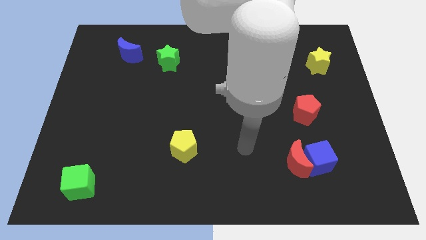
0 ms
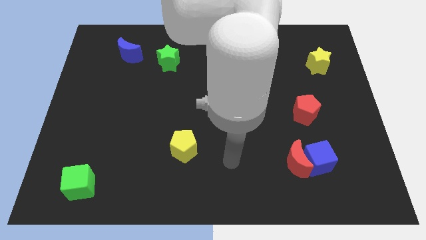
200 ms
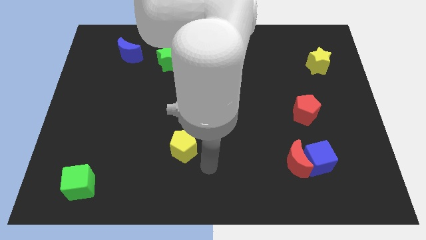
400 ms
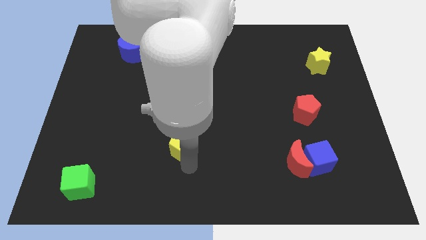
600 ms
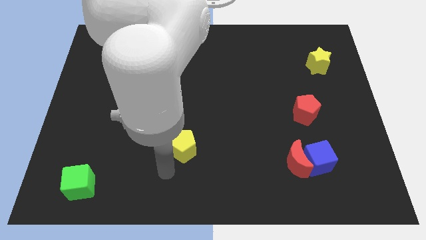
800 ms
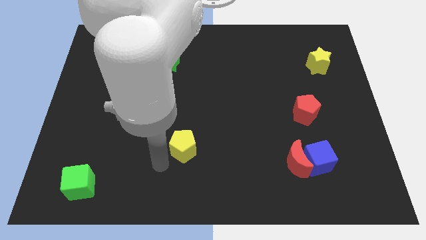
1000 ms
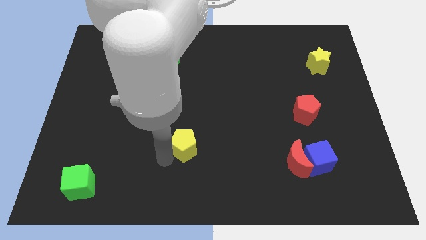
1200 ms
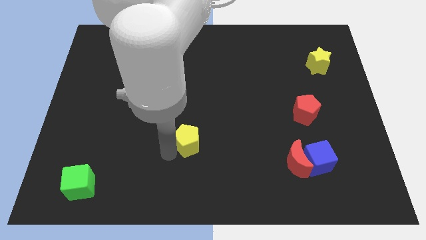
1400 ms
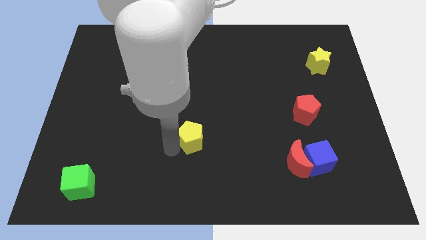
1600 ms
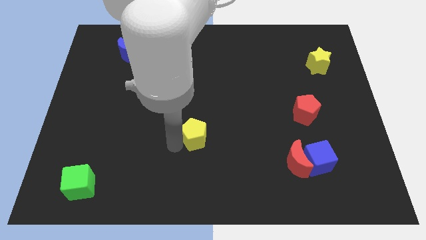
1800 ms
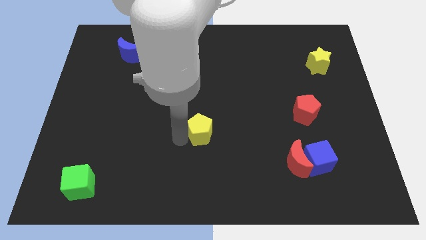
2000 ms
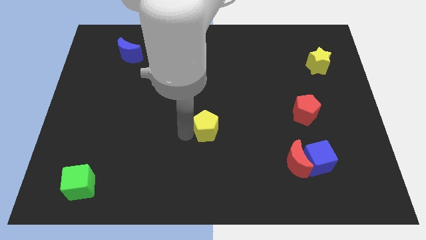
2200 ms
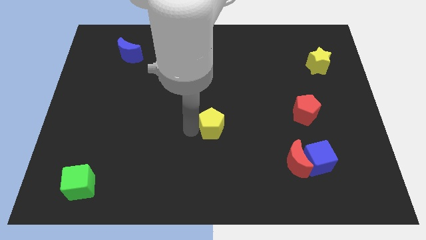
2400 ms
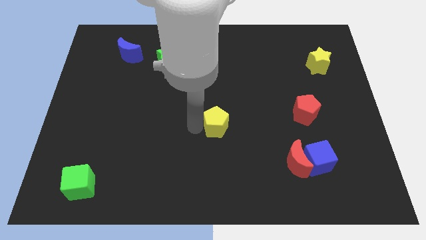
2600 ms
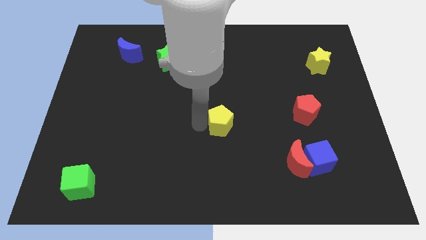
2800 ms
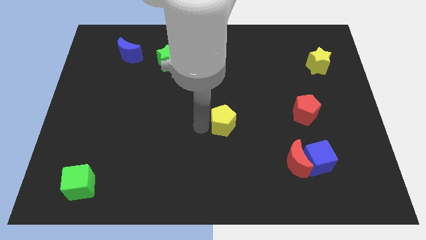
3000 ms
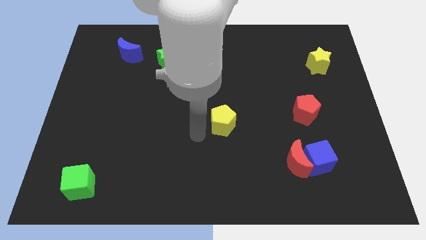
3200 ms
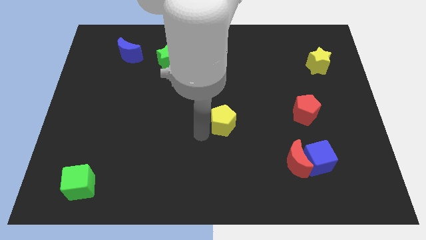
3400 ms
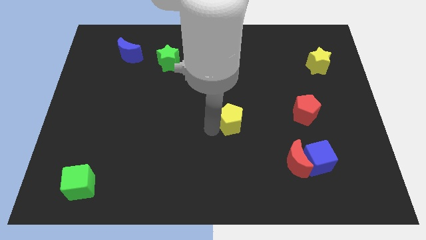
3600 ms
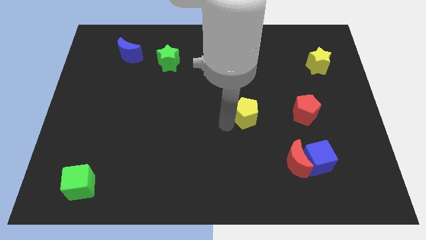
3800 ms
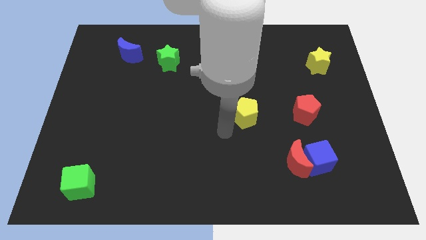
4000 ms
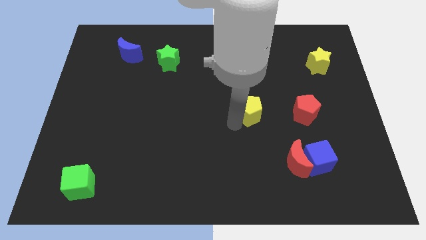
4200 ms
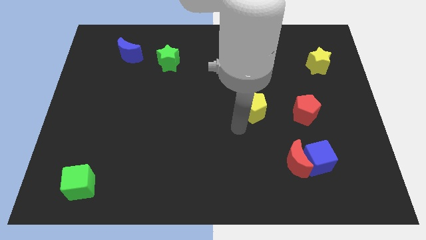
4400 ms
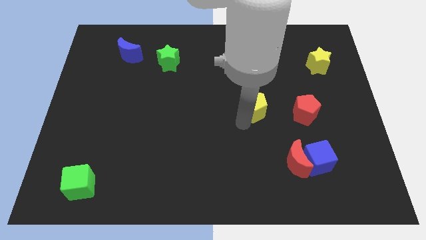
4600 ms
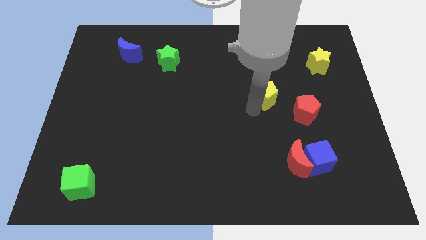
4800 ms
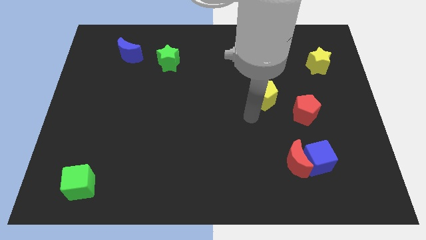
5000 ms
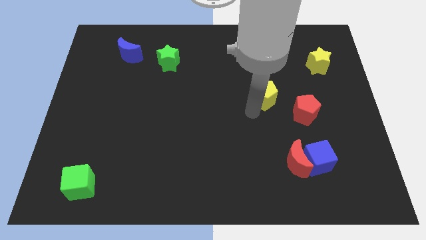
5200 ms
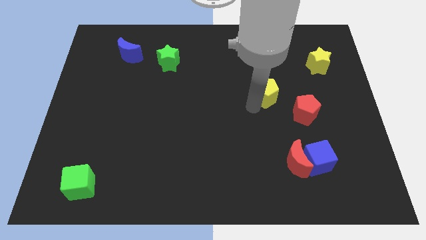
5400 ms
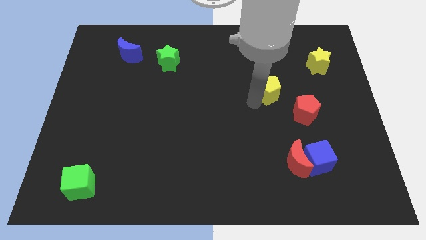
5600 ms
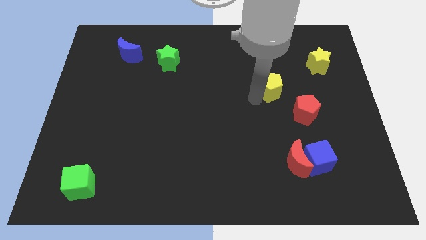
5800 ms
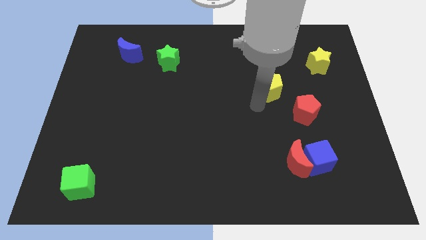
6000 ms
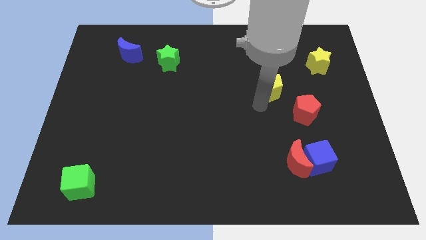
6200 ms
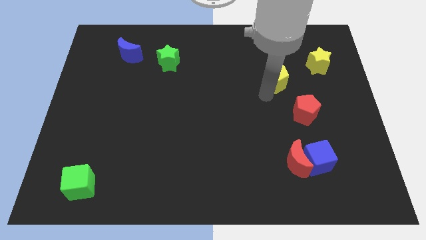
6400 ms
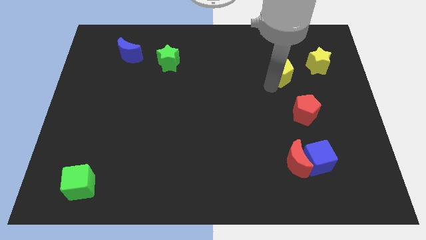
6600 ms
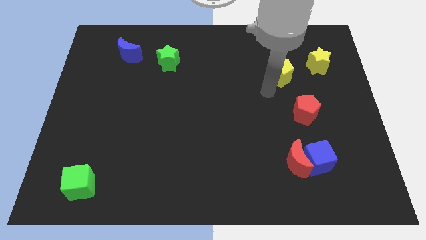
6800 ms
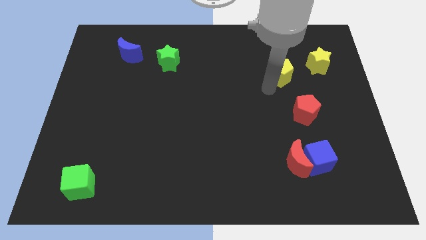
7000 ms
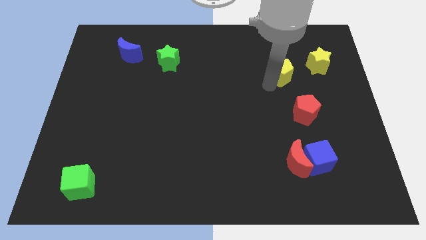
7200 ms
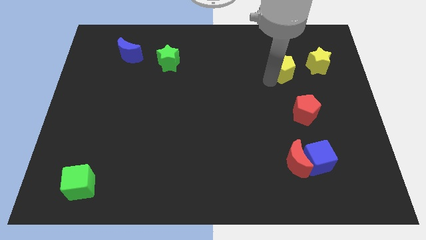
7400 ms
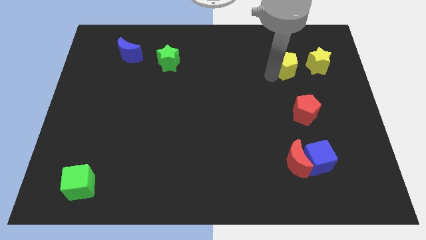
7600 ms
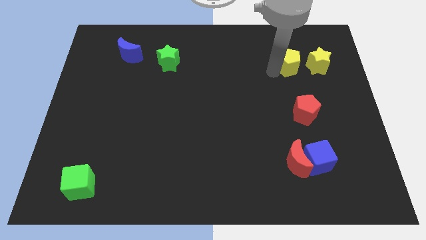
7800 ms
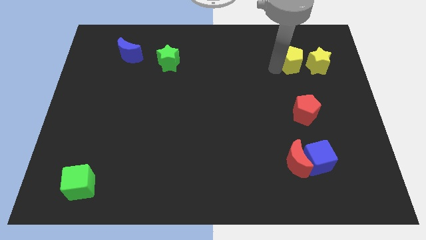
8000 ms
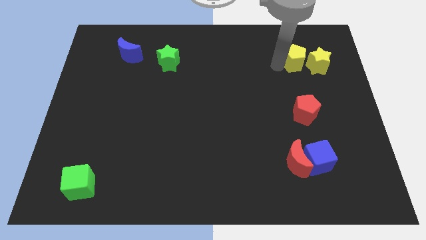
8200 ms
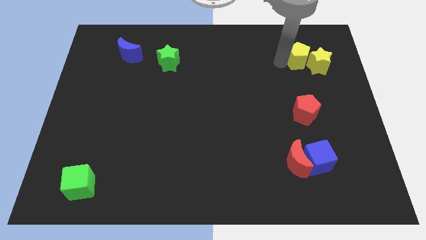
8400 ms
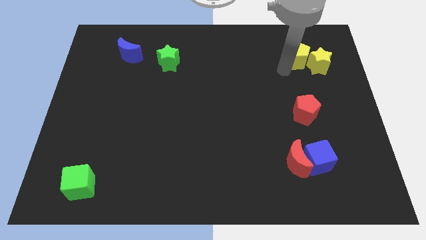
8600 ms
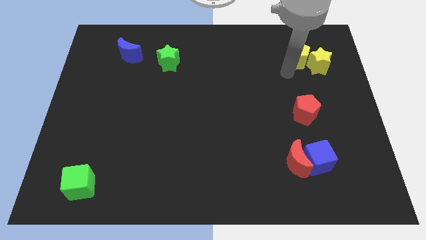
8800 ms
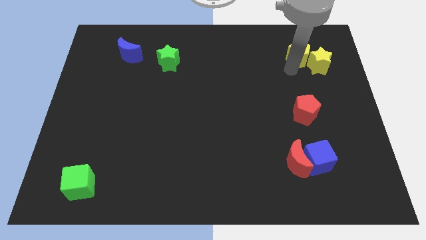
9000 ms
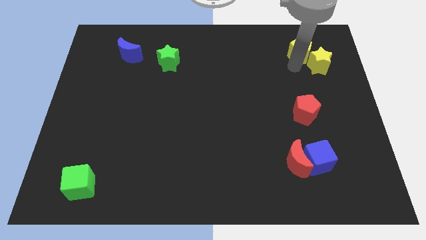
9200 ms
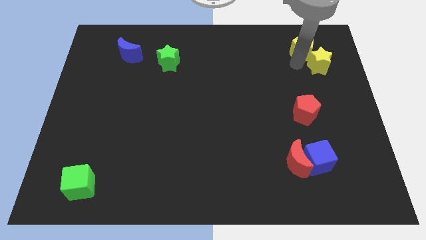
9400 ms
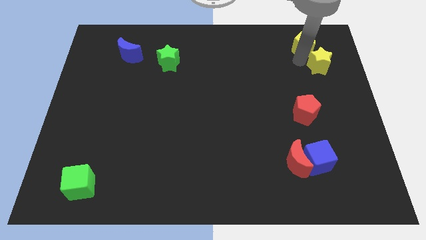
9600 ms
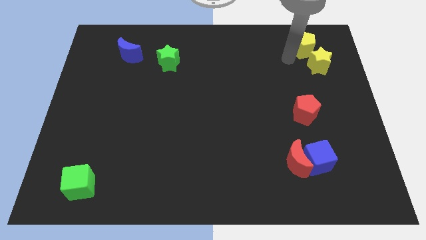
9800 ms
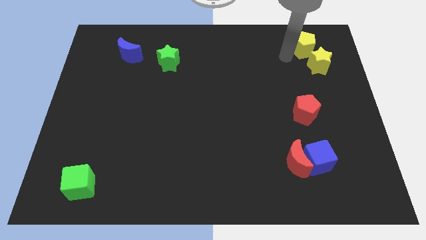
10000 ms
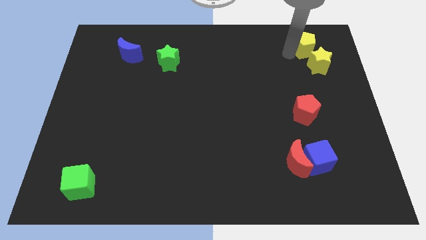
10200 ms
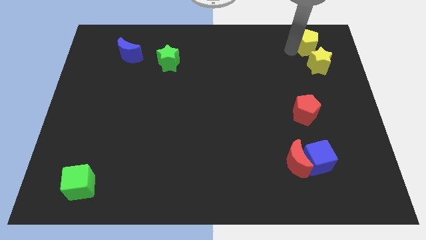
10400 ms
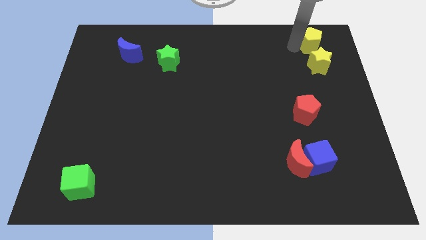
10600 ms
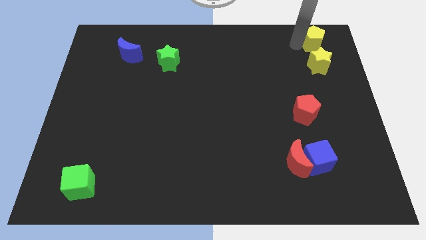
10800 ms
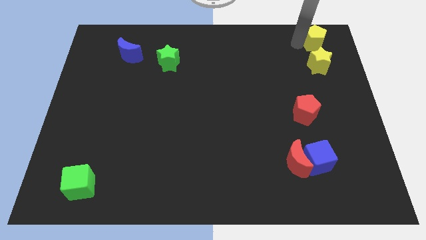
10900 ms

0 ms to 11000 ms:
push the yellow pentagon to the top right of the board

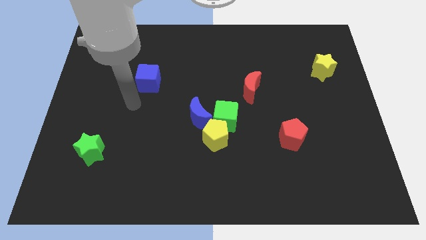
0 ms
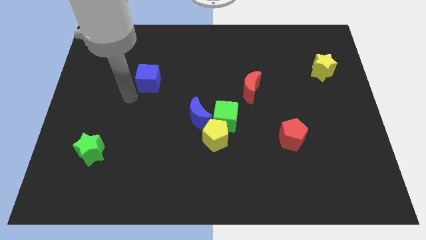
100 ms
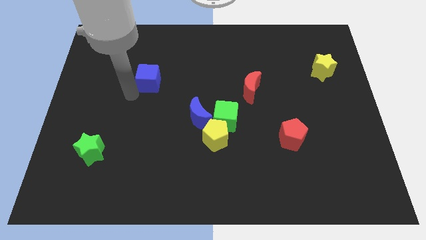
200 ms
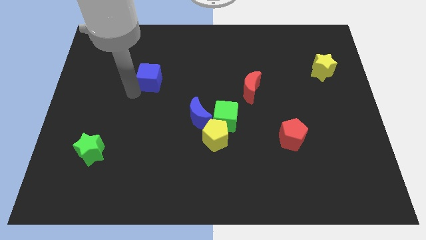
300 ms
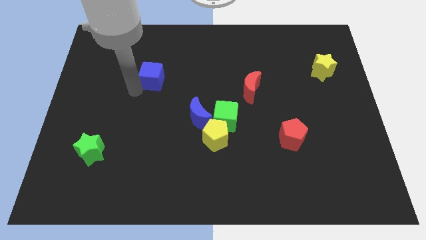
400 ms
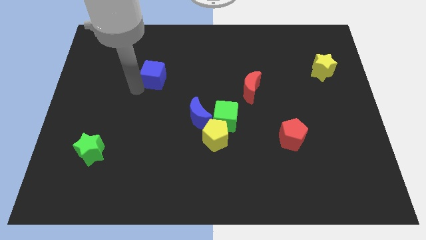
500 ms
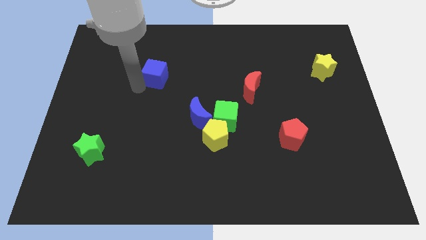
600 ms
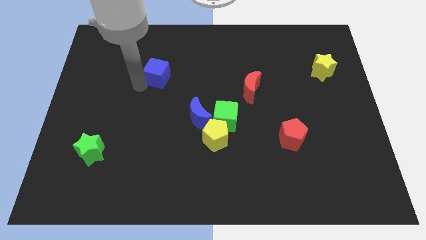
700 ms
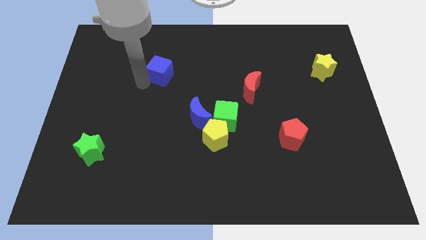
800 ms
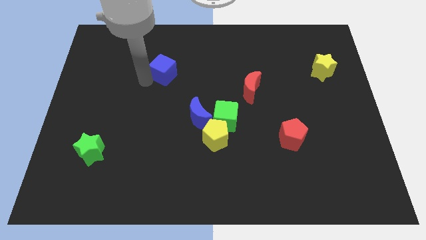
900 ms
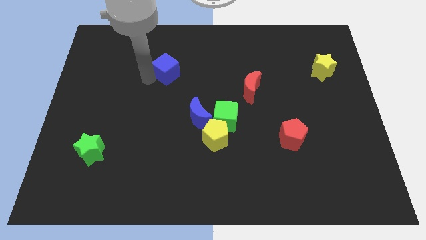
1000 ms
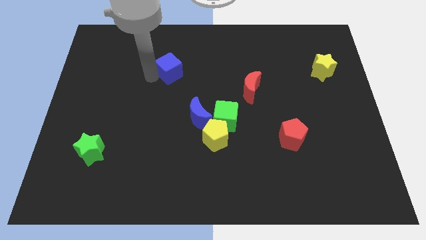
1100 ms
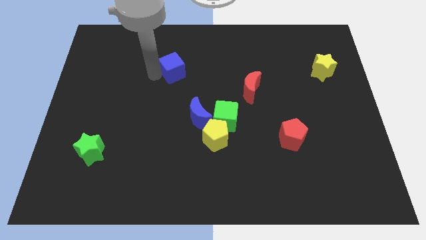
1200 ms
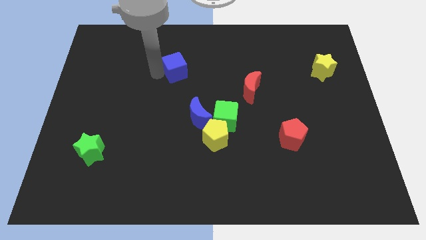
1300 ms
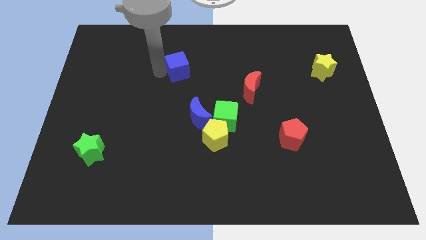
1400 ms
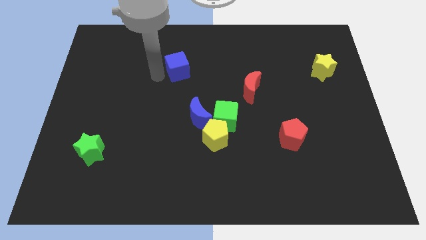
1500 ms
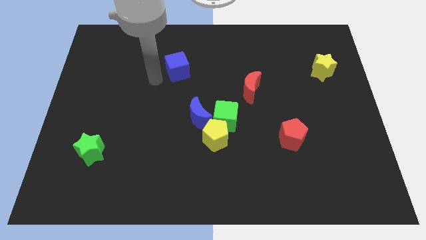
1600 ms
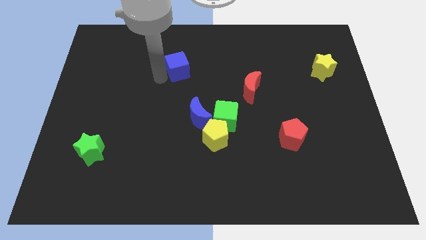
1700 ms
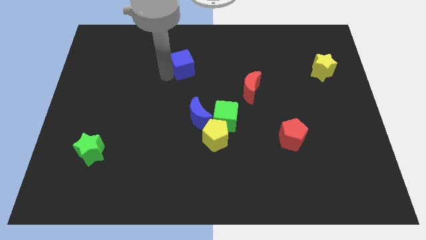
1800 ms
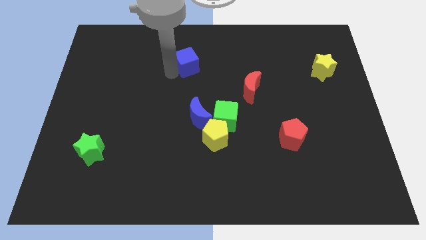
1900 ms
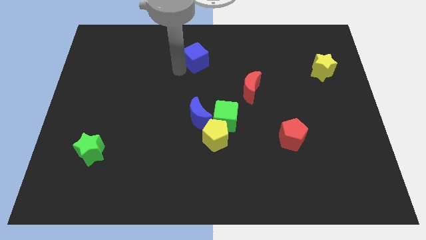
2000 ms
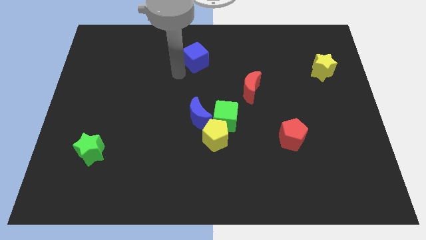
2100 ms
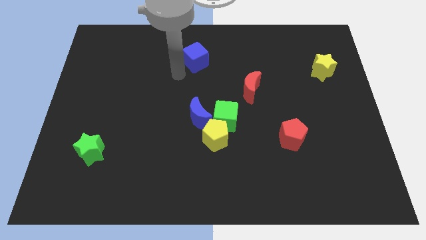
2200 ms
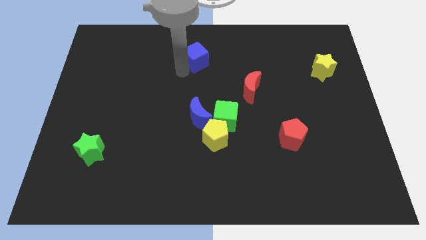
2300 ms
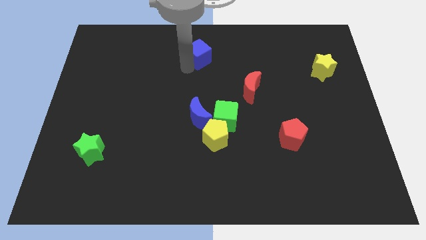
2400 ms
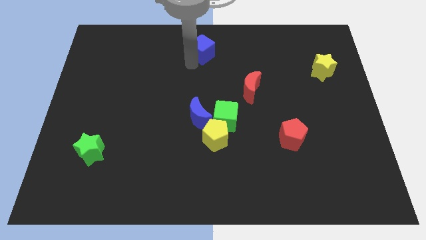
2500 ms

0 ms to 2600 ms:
push the blue cube to the towards your base
